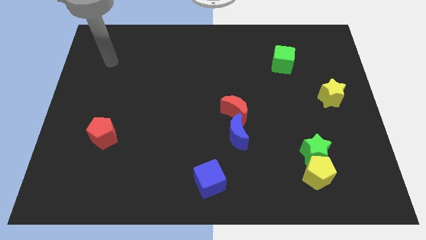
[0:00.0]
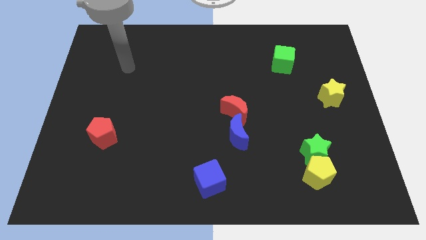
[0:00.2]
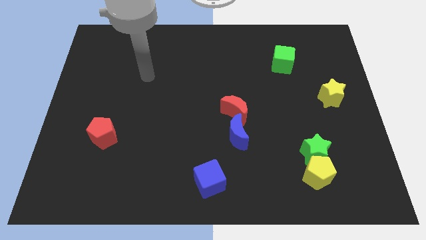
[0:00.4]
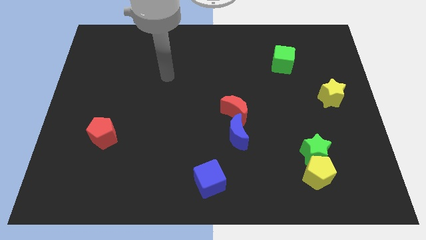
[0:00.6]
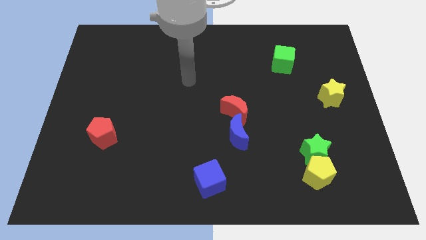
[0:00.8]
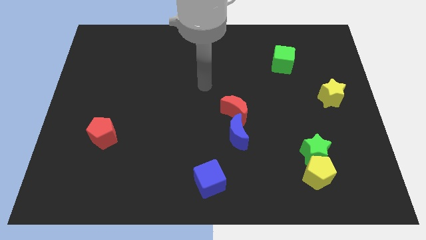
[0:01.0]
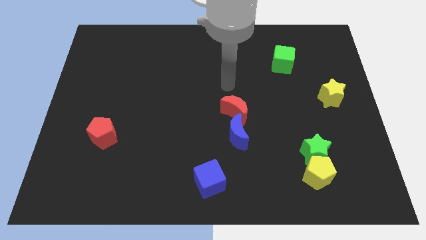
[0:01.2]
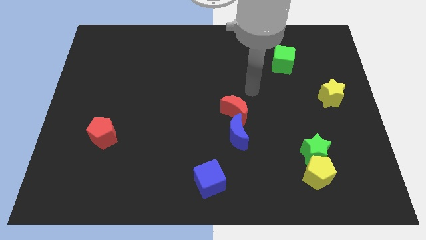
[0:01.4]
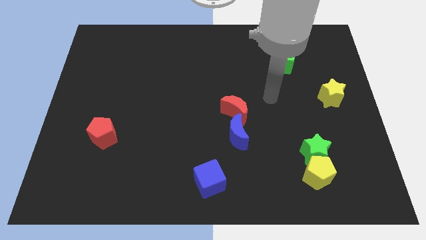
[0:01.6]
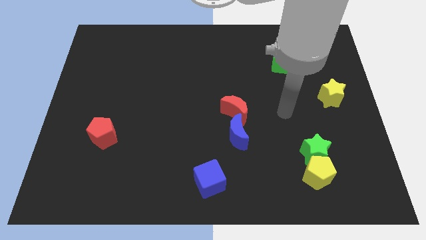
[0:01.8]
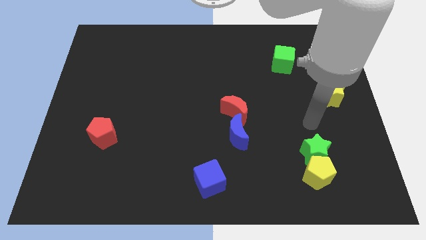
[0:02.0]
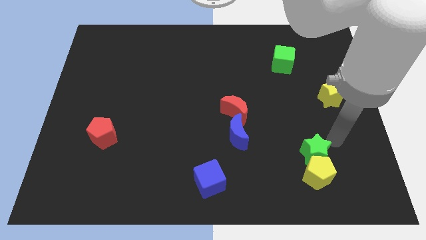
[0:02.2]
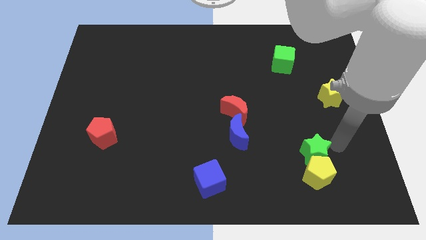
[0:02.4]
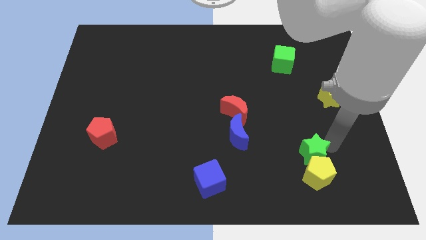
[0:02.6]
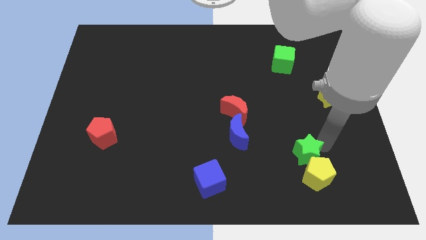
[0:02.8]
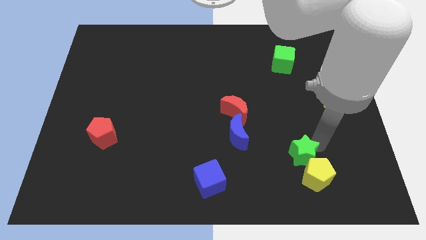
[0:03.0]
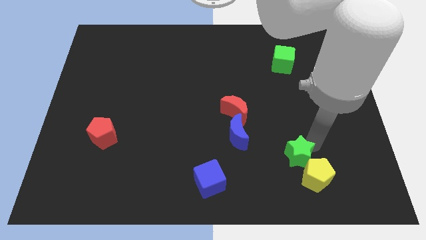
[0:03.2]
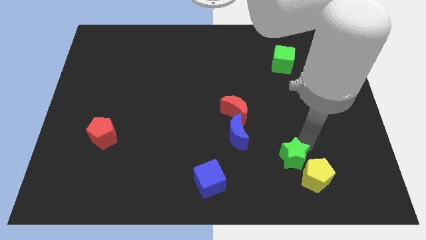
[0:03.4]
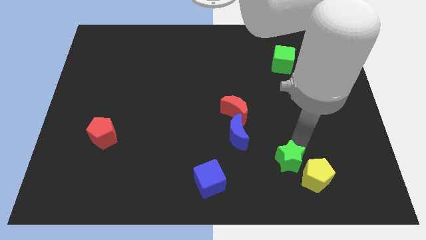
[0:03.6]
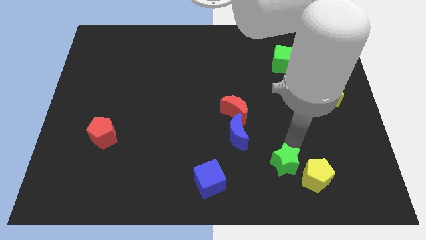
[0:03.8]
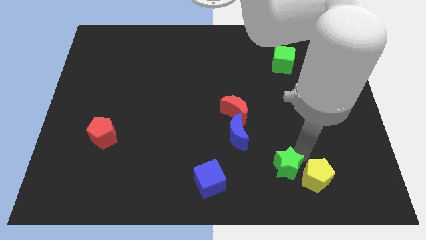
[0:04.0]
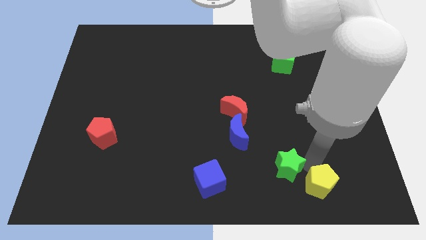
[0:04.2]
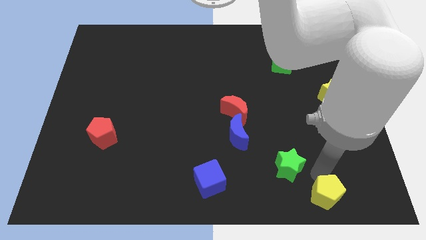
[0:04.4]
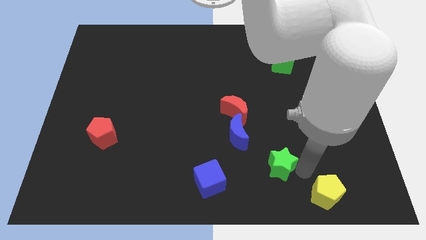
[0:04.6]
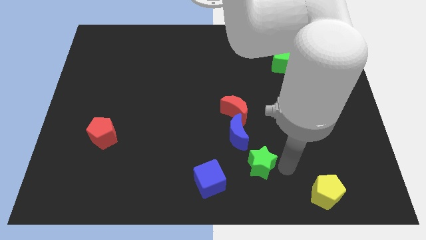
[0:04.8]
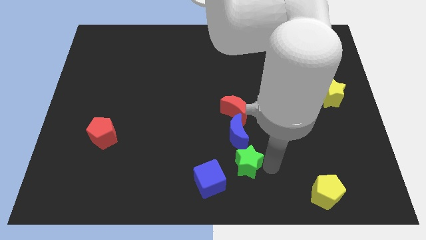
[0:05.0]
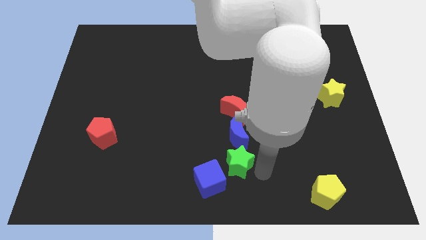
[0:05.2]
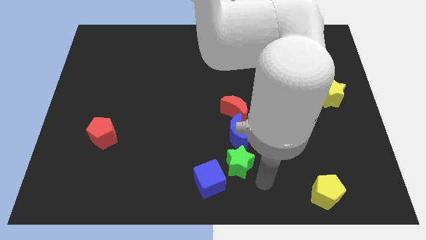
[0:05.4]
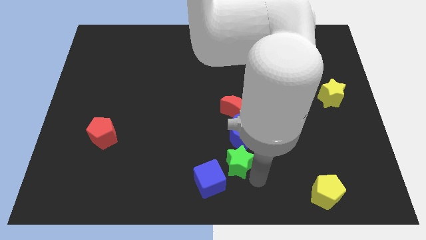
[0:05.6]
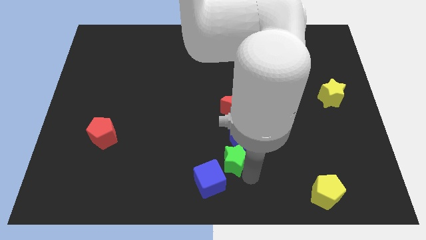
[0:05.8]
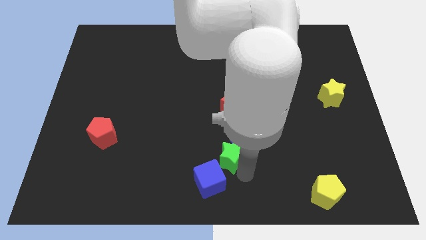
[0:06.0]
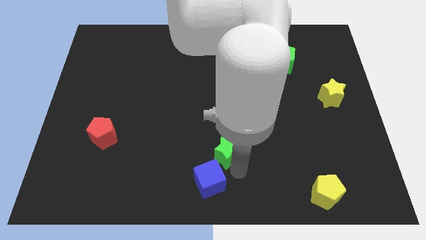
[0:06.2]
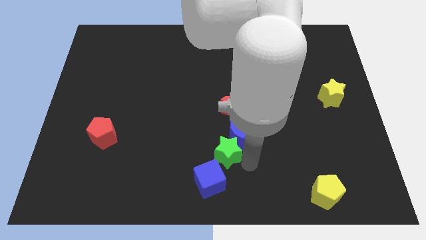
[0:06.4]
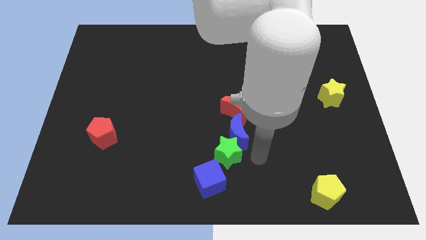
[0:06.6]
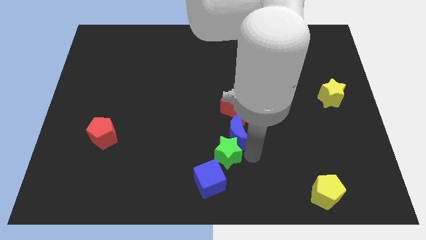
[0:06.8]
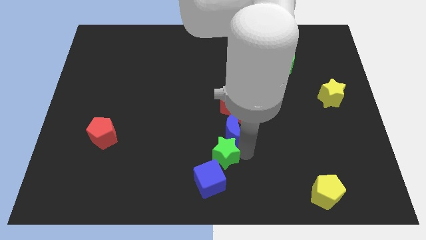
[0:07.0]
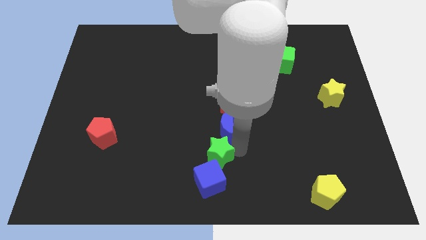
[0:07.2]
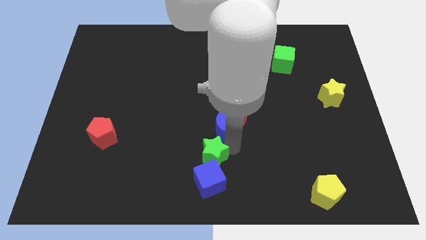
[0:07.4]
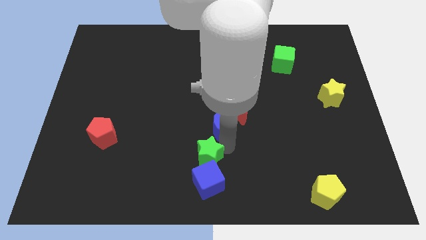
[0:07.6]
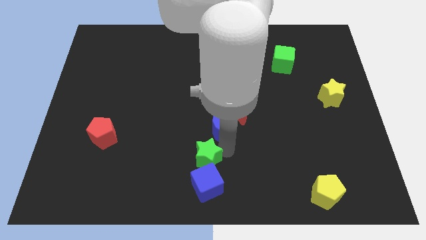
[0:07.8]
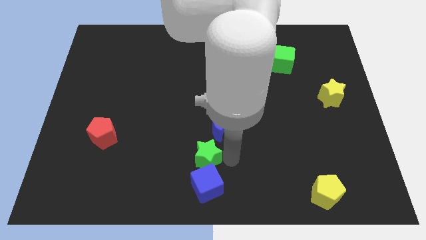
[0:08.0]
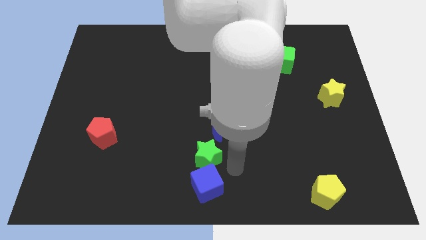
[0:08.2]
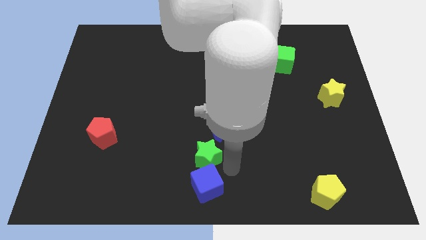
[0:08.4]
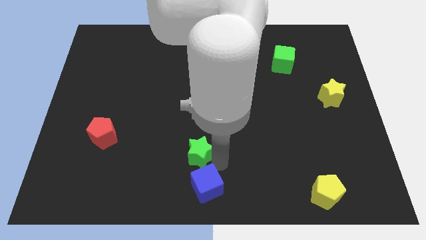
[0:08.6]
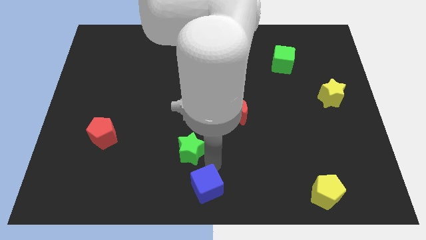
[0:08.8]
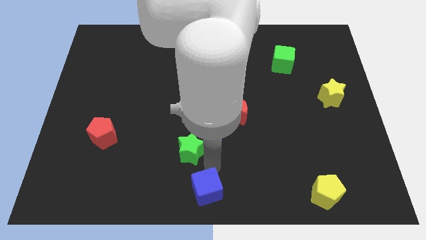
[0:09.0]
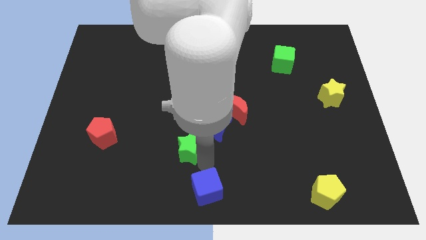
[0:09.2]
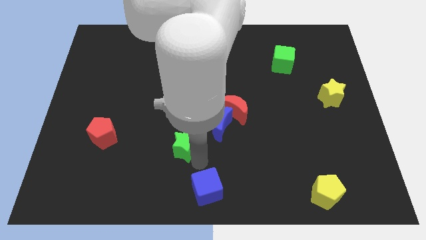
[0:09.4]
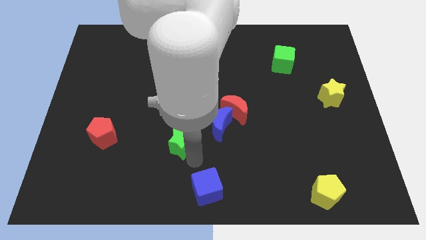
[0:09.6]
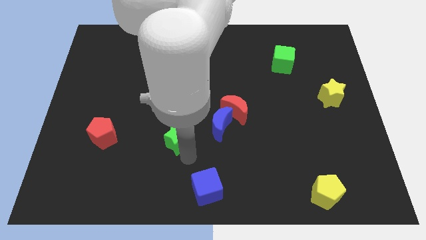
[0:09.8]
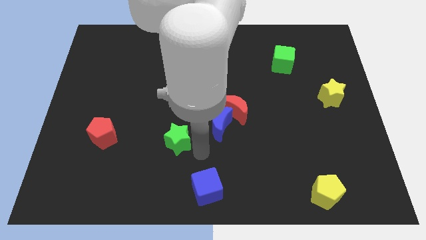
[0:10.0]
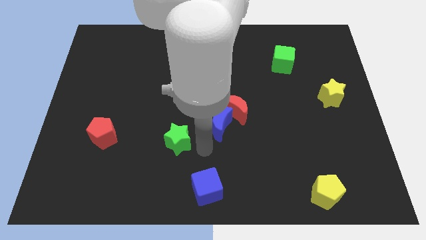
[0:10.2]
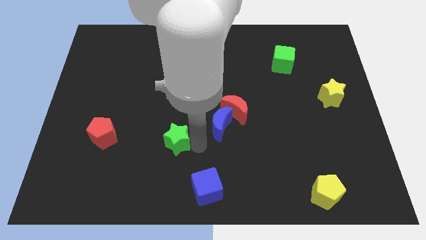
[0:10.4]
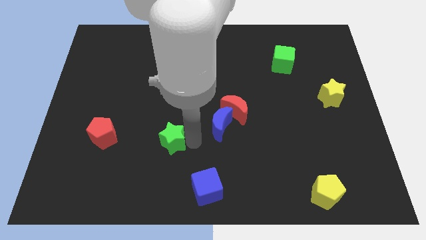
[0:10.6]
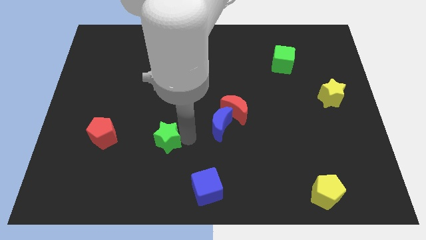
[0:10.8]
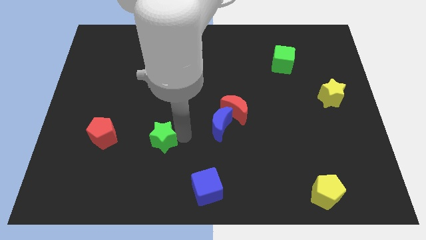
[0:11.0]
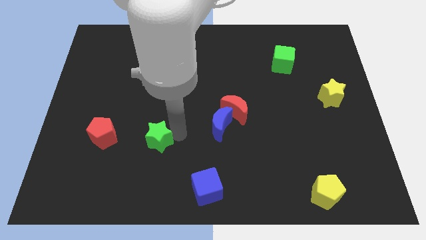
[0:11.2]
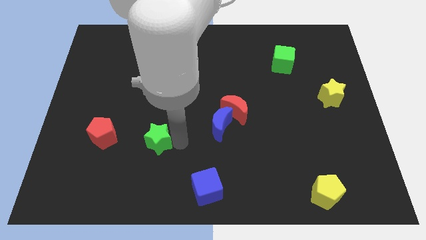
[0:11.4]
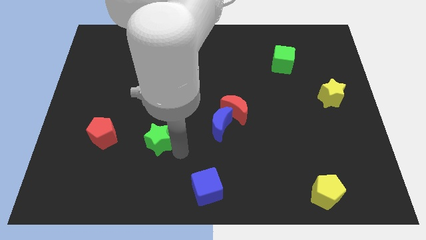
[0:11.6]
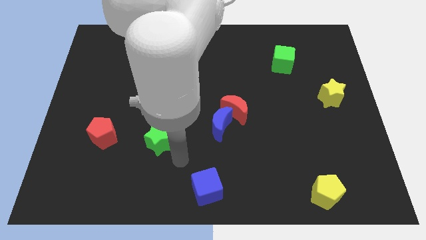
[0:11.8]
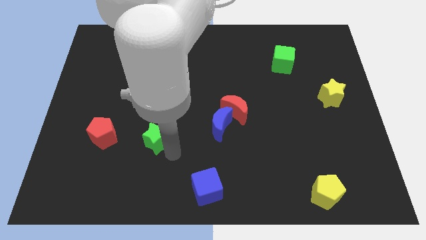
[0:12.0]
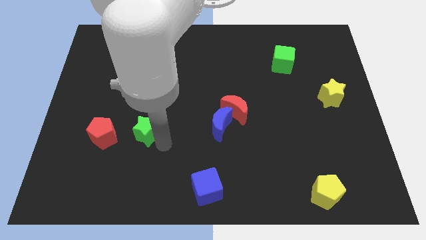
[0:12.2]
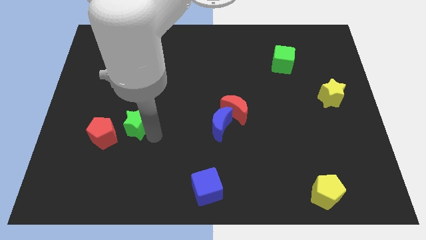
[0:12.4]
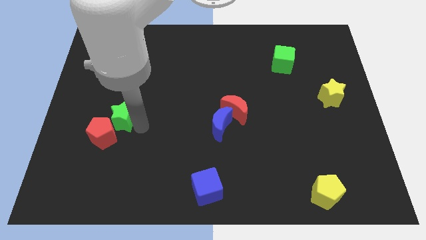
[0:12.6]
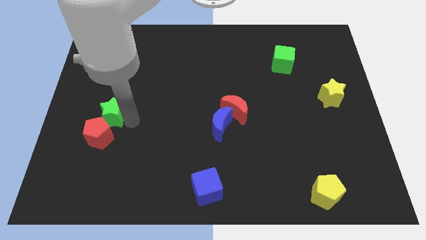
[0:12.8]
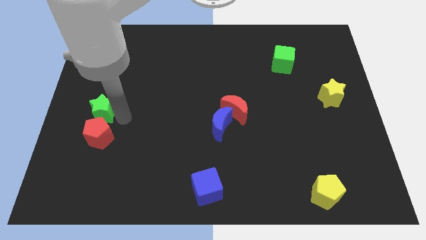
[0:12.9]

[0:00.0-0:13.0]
push the green star to the center left
